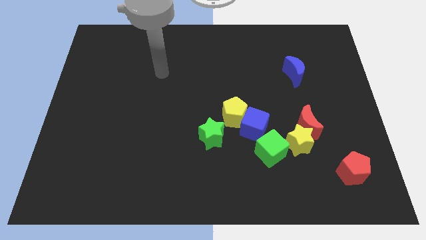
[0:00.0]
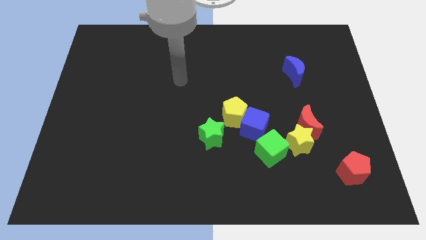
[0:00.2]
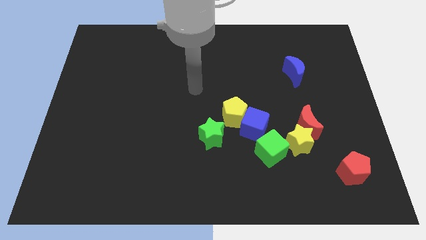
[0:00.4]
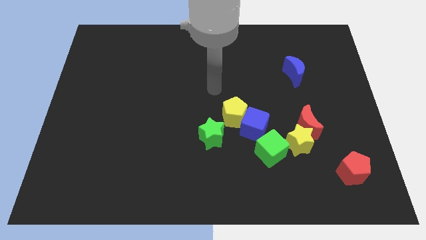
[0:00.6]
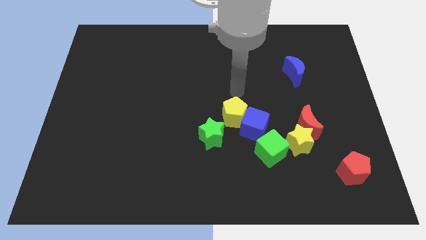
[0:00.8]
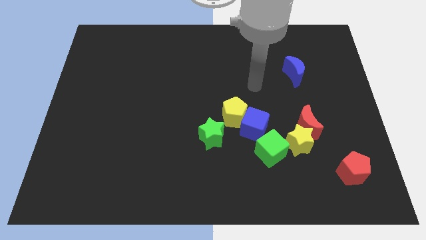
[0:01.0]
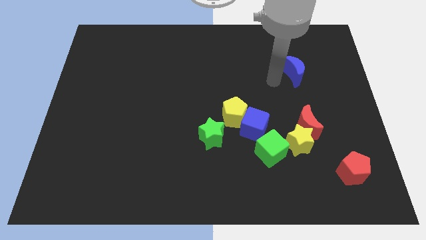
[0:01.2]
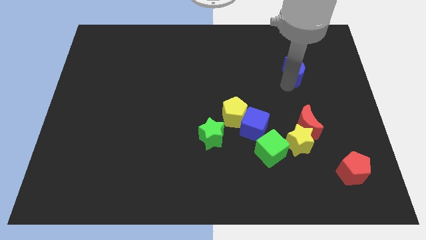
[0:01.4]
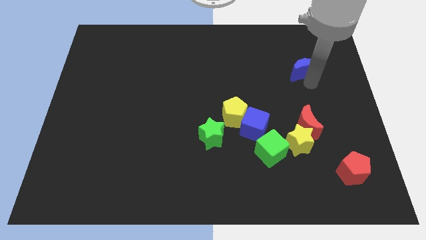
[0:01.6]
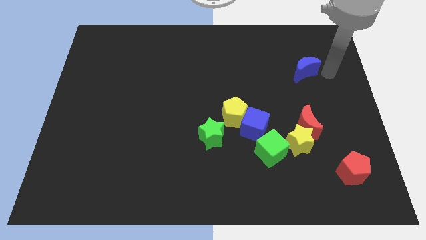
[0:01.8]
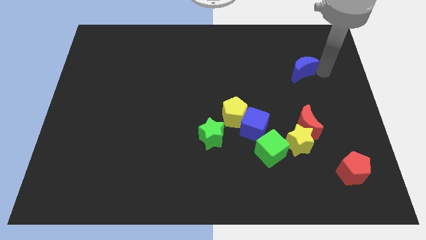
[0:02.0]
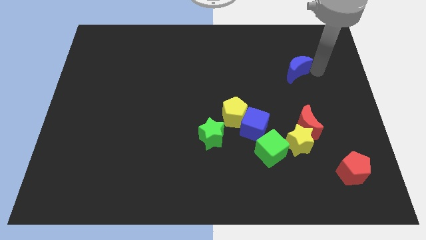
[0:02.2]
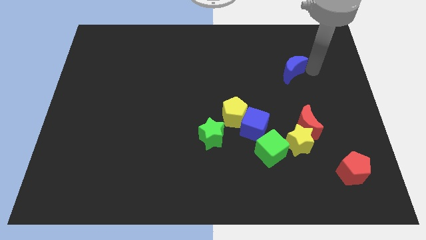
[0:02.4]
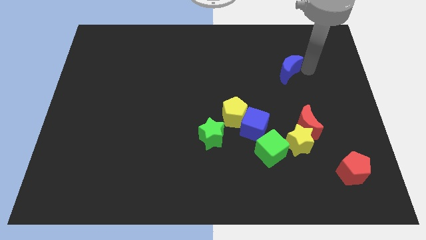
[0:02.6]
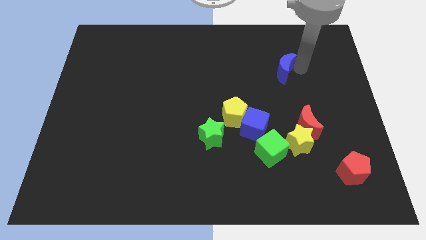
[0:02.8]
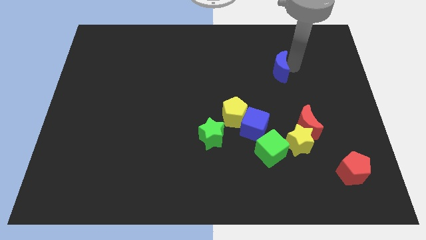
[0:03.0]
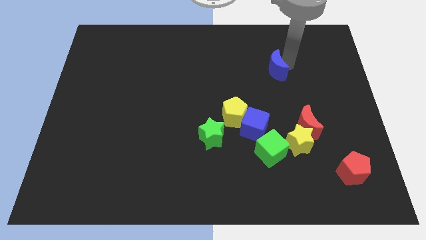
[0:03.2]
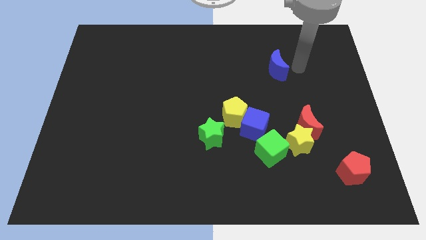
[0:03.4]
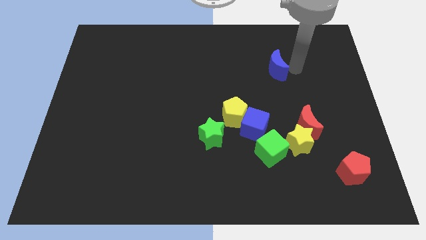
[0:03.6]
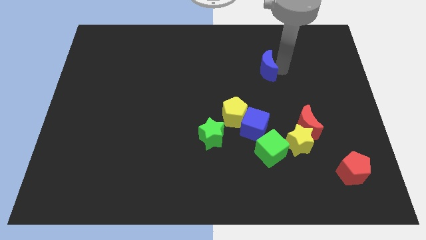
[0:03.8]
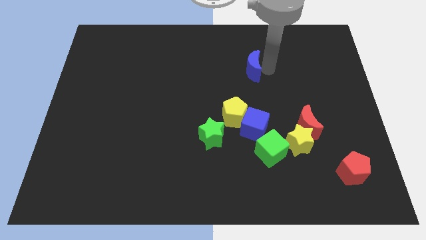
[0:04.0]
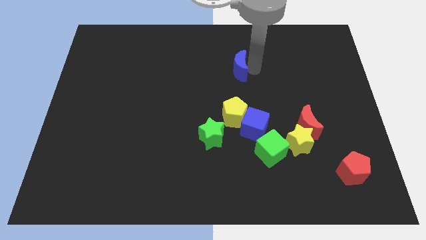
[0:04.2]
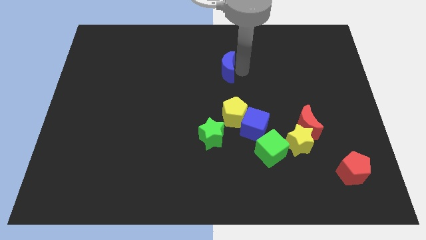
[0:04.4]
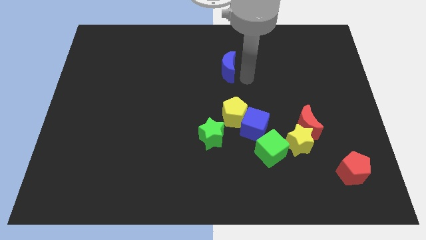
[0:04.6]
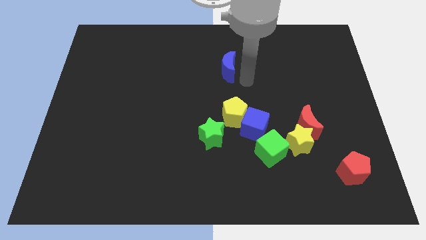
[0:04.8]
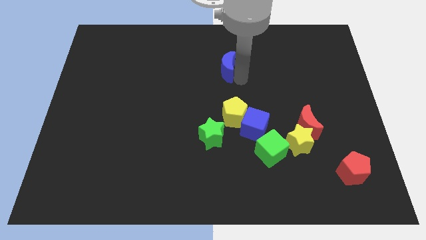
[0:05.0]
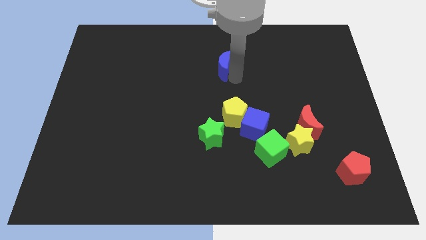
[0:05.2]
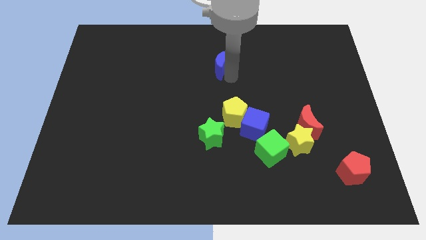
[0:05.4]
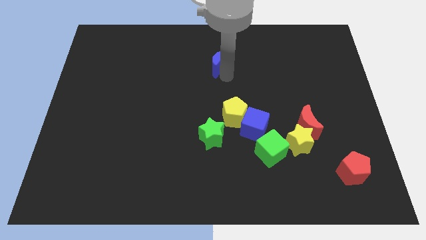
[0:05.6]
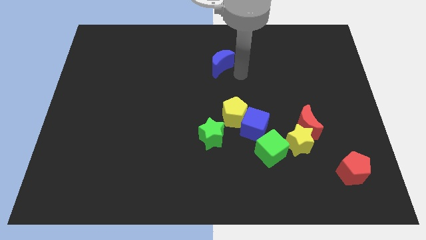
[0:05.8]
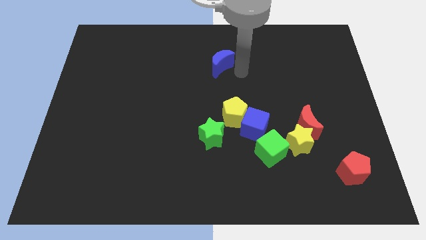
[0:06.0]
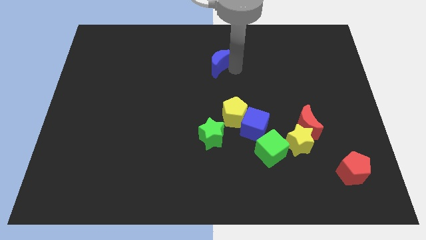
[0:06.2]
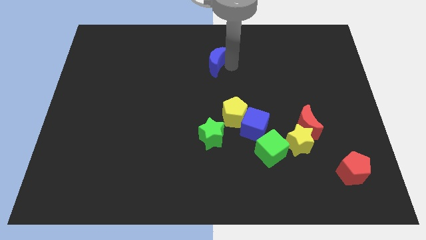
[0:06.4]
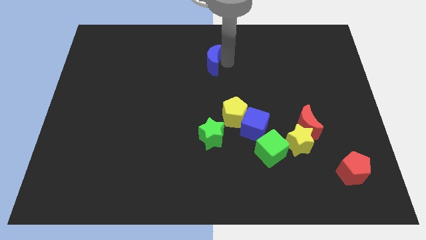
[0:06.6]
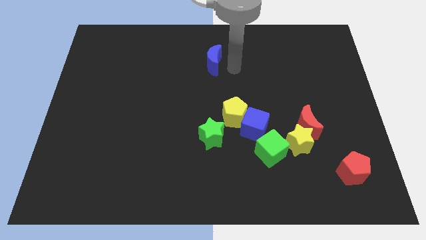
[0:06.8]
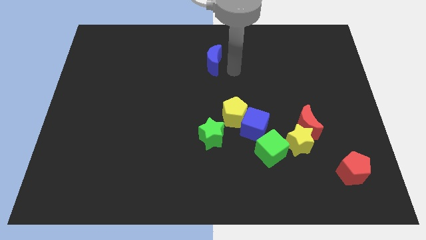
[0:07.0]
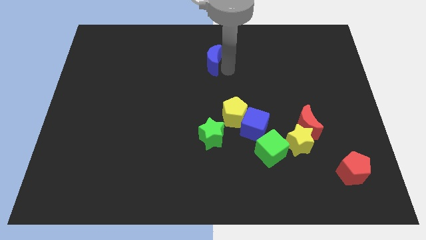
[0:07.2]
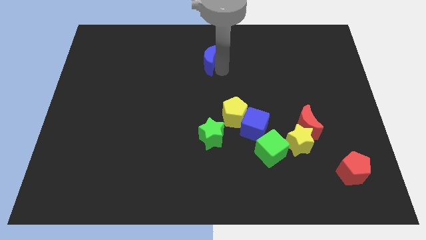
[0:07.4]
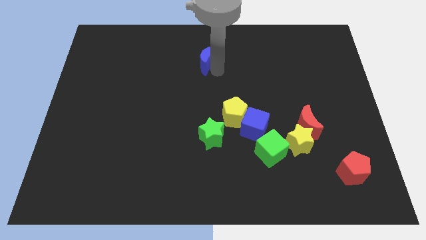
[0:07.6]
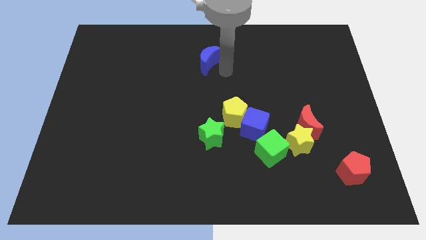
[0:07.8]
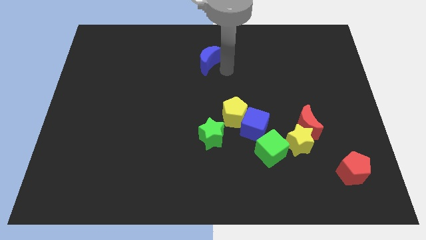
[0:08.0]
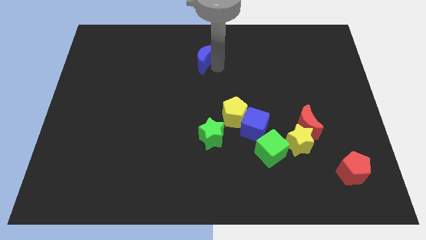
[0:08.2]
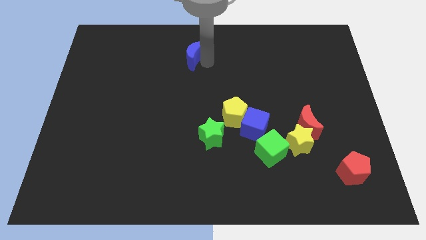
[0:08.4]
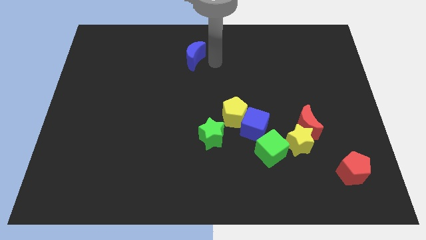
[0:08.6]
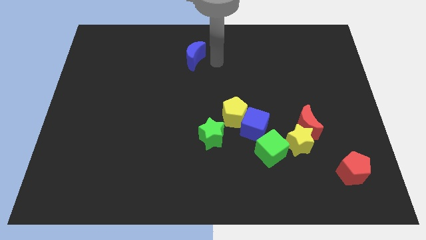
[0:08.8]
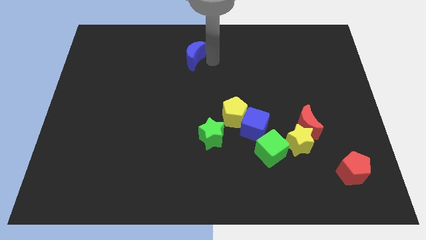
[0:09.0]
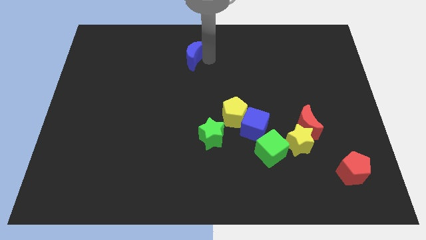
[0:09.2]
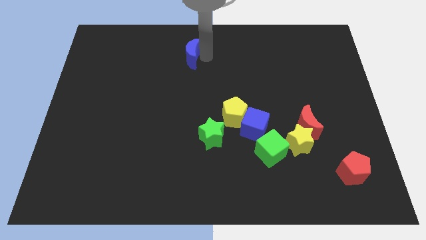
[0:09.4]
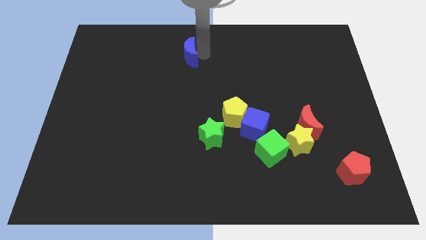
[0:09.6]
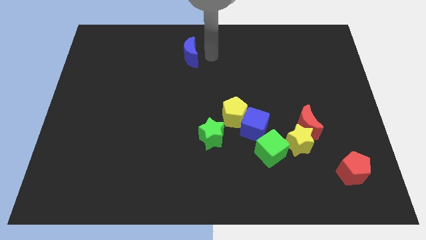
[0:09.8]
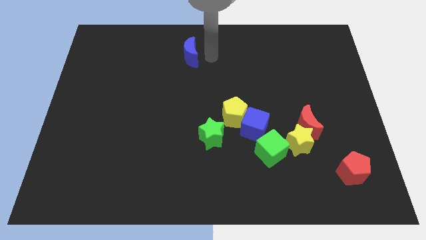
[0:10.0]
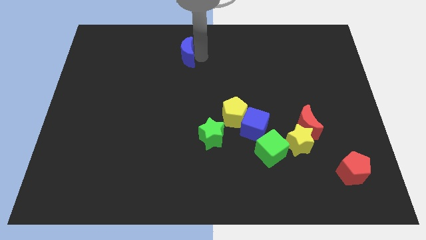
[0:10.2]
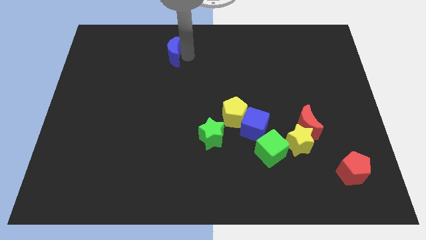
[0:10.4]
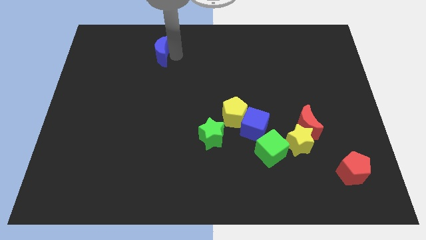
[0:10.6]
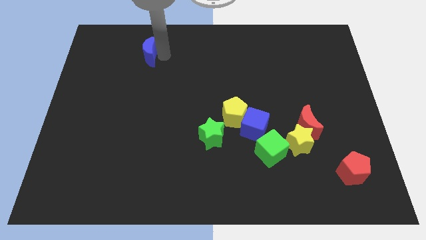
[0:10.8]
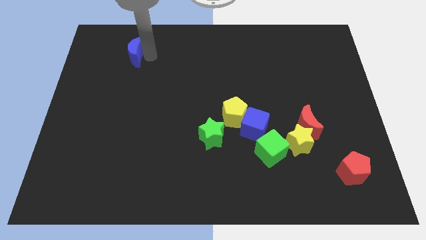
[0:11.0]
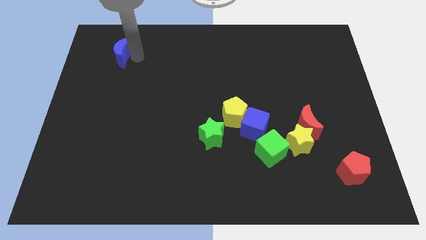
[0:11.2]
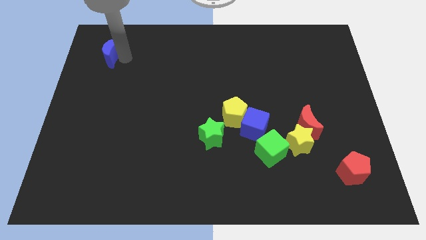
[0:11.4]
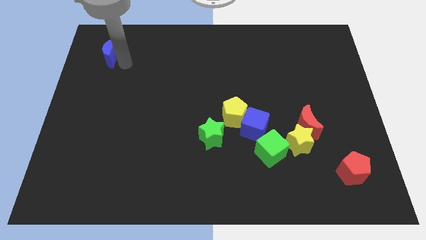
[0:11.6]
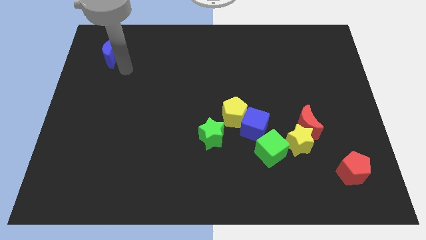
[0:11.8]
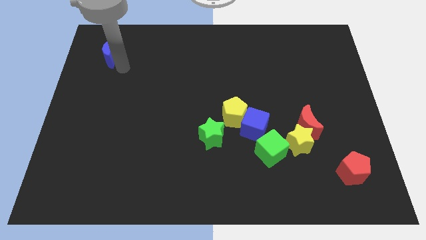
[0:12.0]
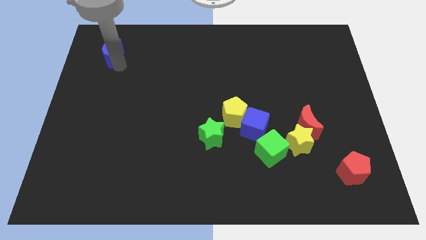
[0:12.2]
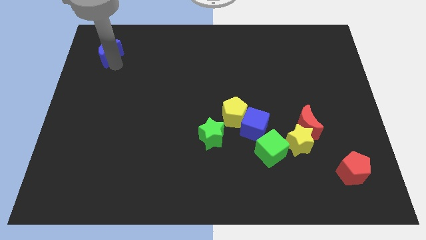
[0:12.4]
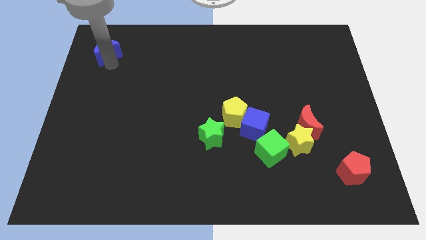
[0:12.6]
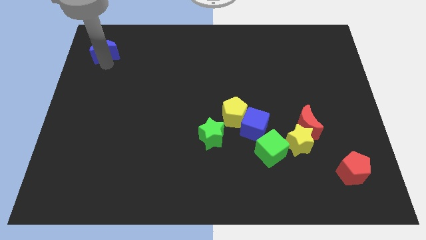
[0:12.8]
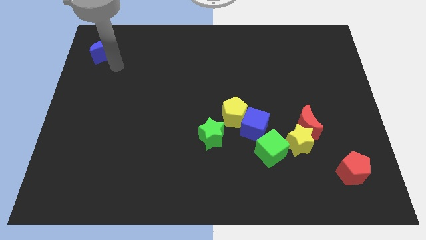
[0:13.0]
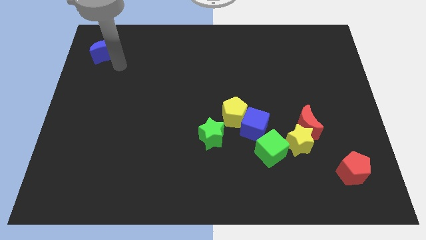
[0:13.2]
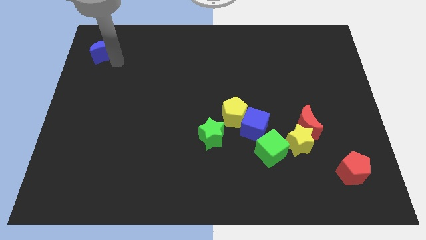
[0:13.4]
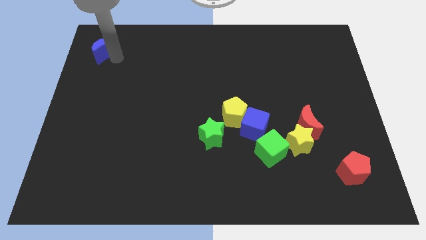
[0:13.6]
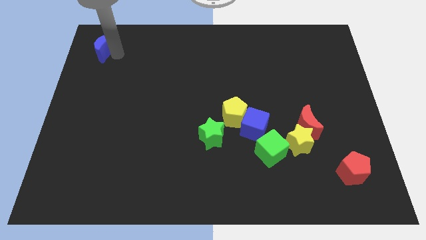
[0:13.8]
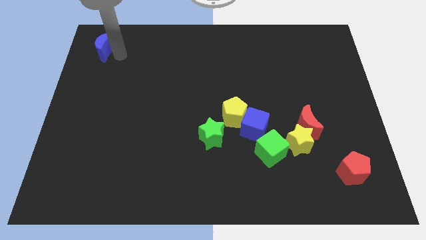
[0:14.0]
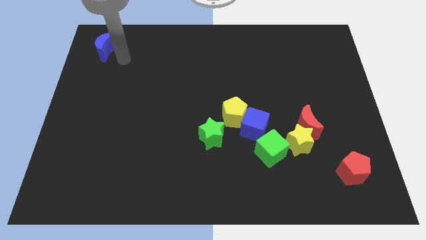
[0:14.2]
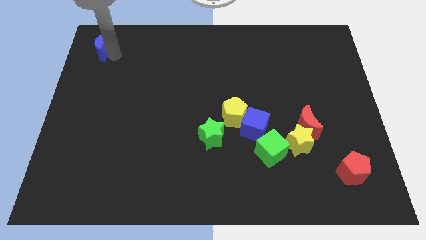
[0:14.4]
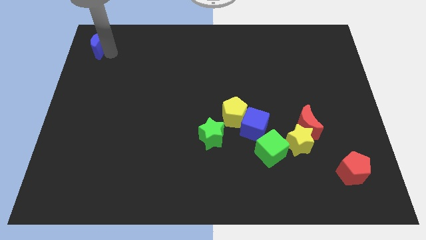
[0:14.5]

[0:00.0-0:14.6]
put the blue moon to the top left corner
